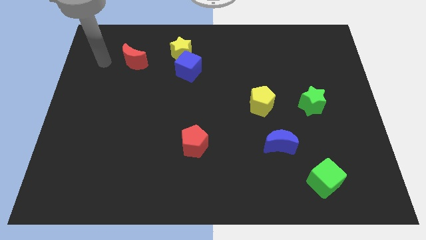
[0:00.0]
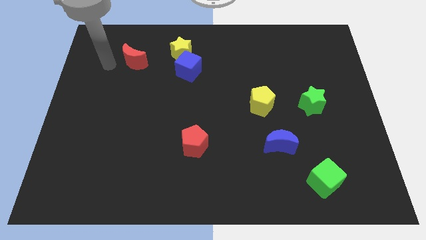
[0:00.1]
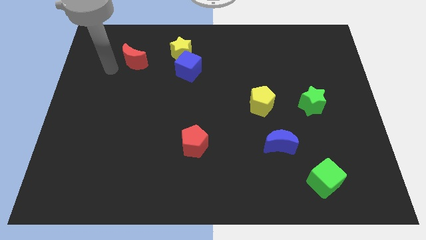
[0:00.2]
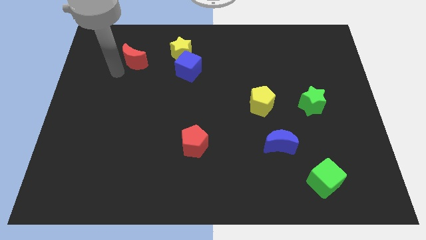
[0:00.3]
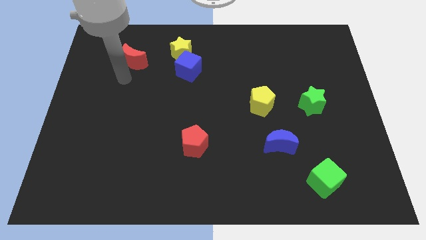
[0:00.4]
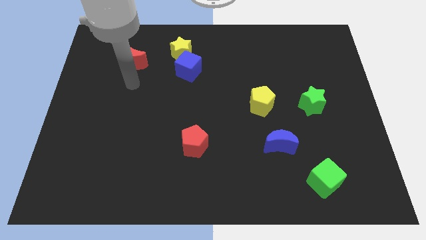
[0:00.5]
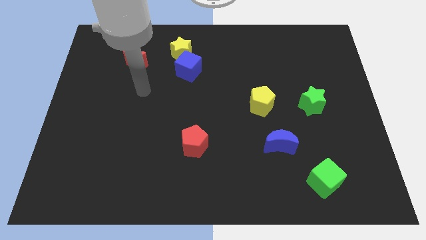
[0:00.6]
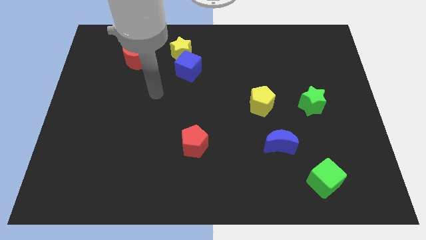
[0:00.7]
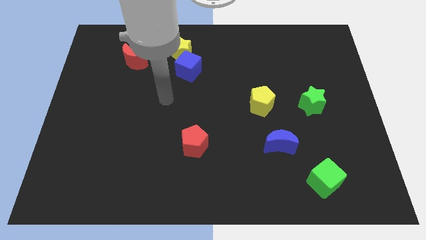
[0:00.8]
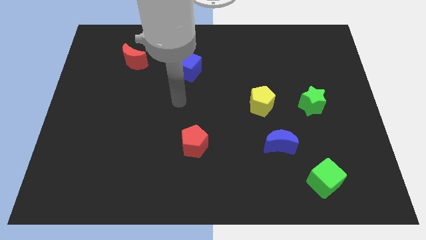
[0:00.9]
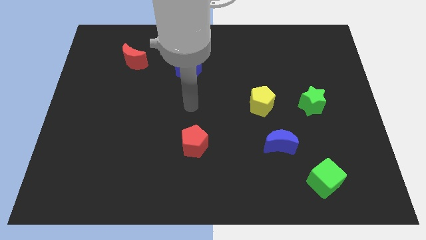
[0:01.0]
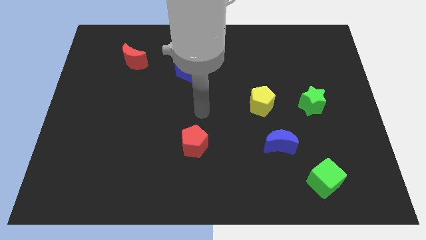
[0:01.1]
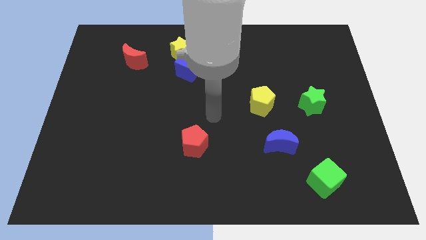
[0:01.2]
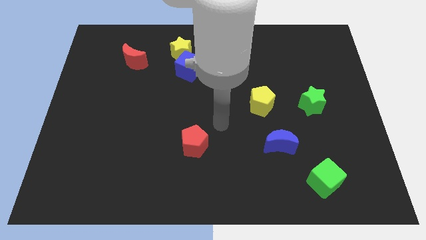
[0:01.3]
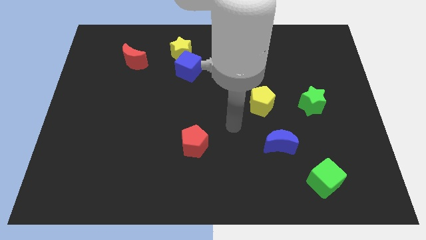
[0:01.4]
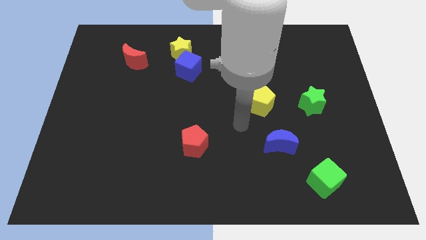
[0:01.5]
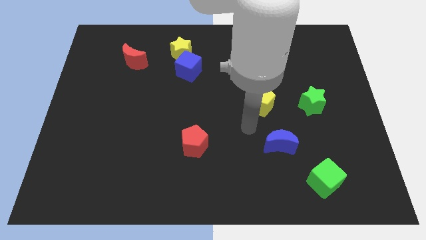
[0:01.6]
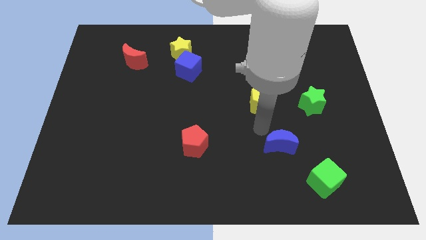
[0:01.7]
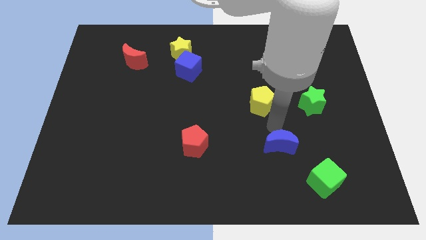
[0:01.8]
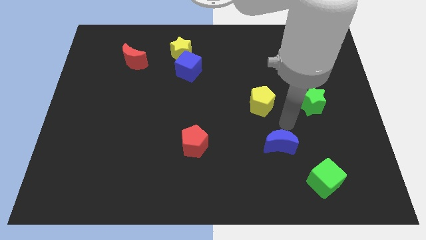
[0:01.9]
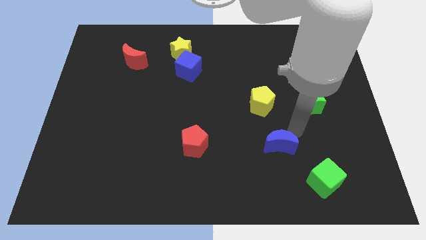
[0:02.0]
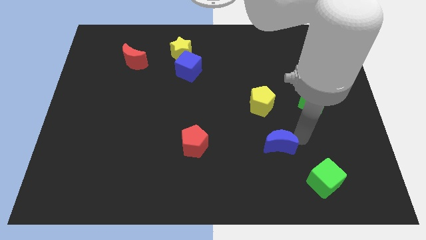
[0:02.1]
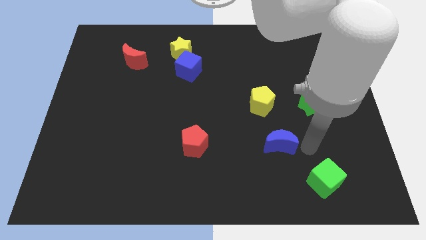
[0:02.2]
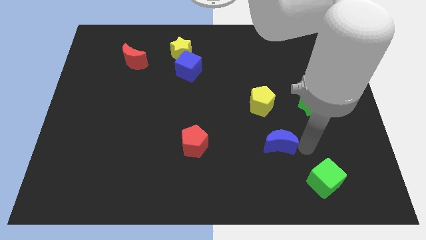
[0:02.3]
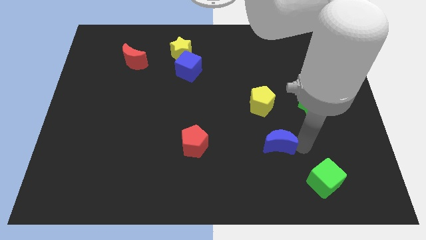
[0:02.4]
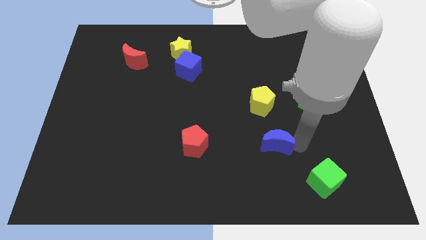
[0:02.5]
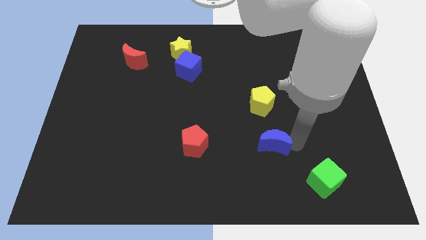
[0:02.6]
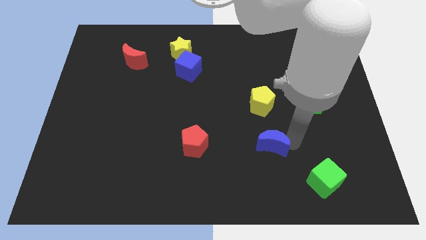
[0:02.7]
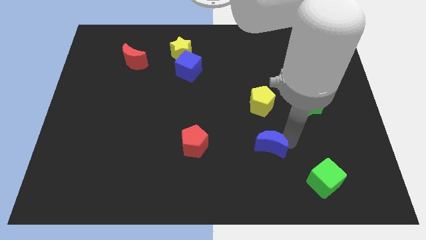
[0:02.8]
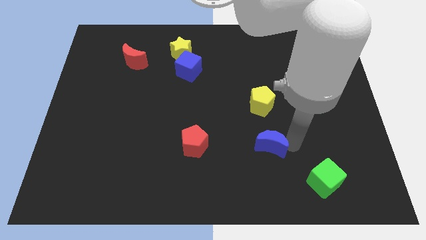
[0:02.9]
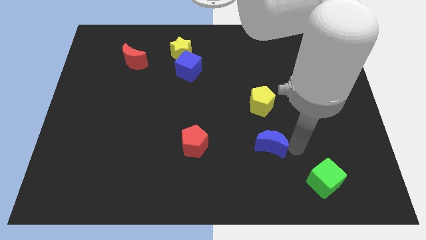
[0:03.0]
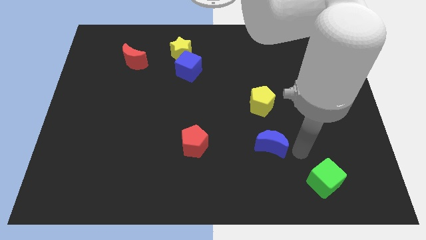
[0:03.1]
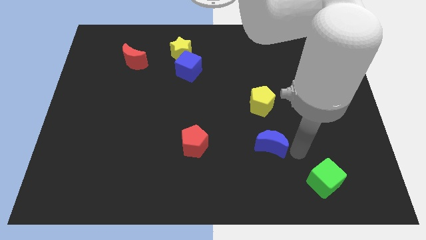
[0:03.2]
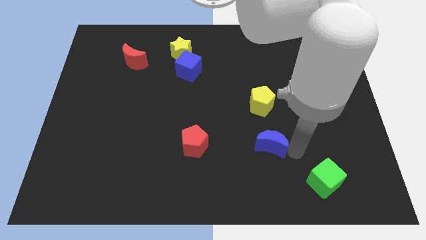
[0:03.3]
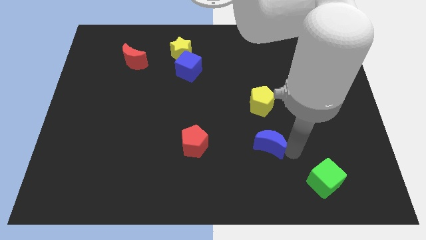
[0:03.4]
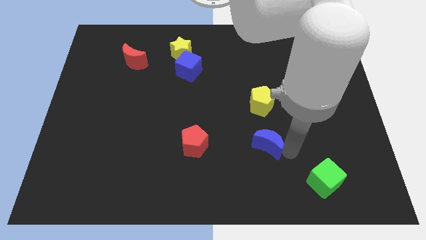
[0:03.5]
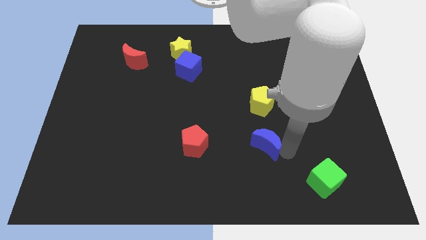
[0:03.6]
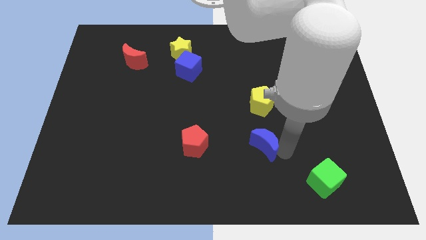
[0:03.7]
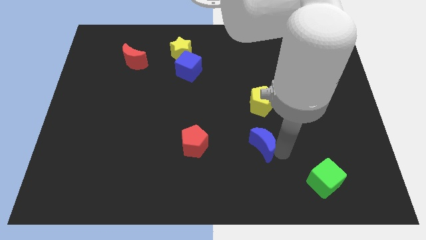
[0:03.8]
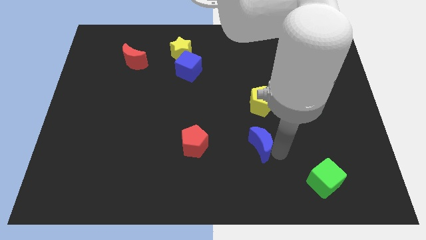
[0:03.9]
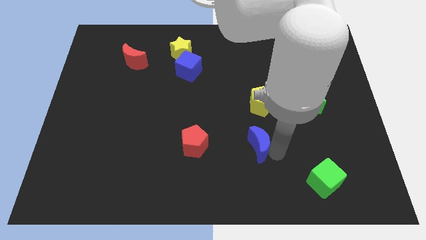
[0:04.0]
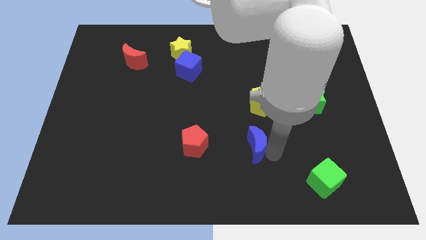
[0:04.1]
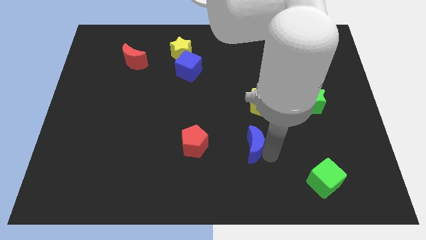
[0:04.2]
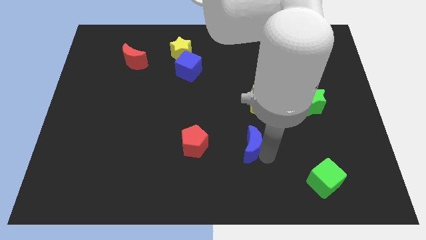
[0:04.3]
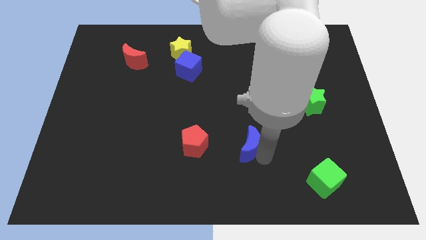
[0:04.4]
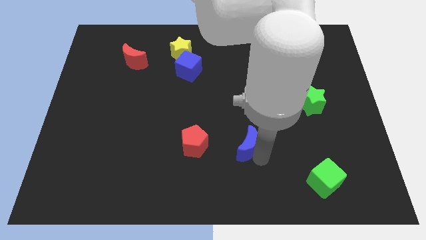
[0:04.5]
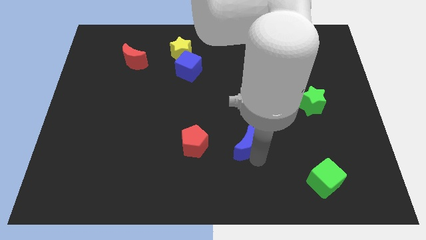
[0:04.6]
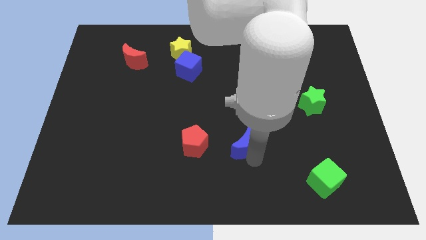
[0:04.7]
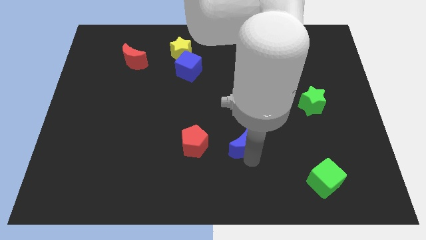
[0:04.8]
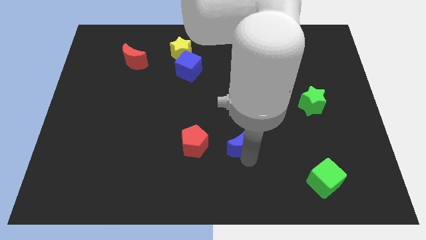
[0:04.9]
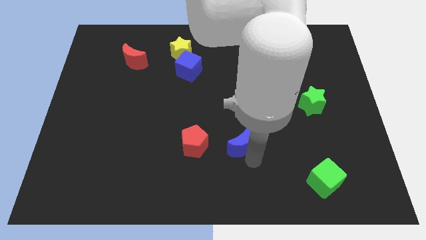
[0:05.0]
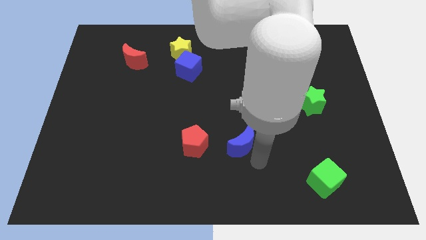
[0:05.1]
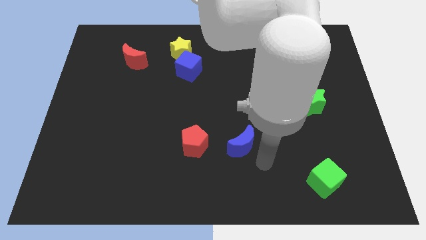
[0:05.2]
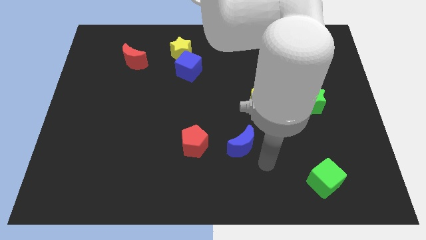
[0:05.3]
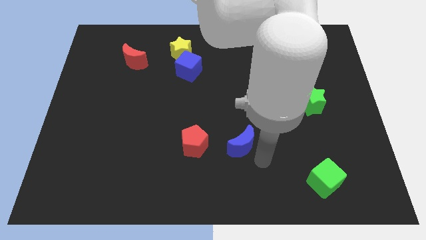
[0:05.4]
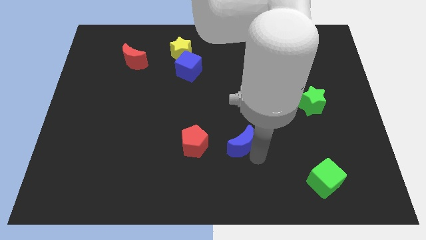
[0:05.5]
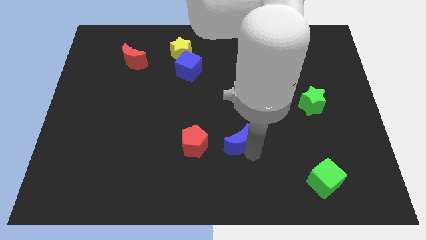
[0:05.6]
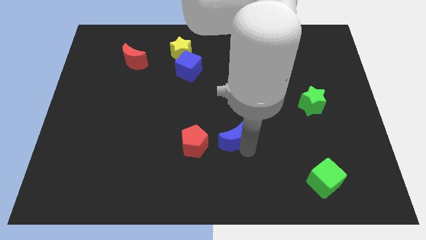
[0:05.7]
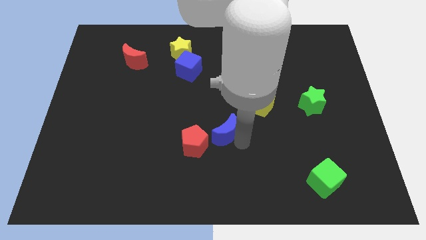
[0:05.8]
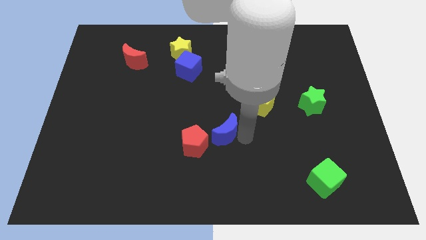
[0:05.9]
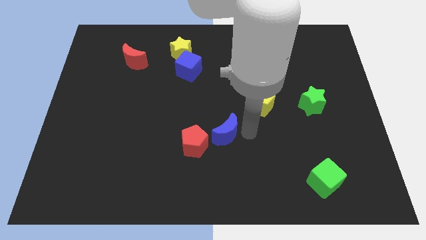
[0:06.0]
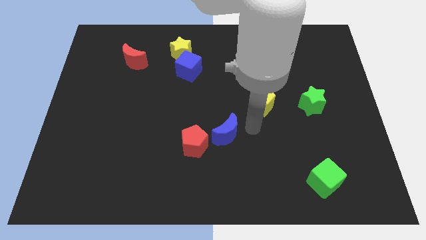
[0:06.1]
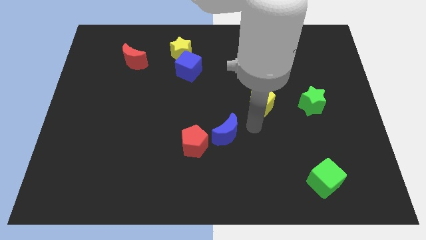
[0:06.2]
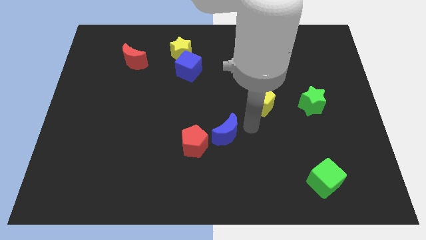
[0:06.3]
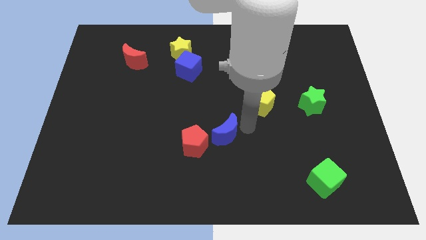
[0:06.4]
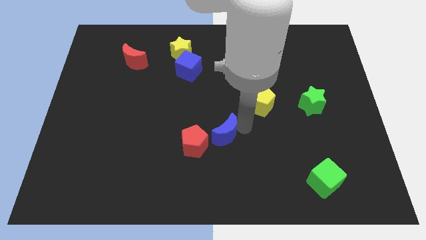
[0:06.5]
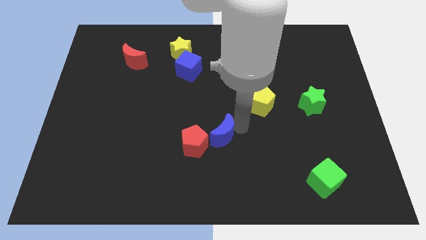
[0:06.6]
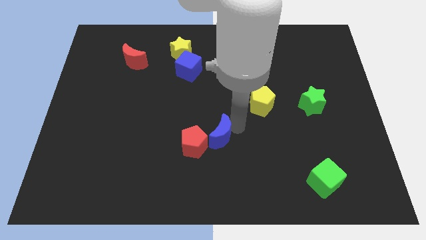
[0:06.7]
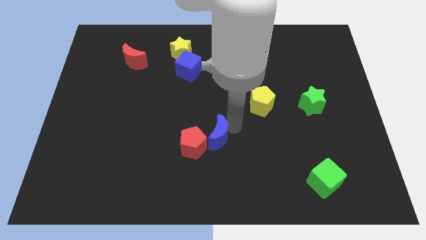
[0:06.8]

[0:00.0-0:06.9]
push the blue moon to the red pentagon
